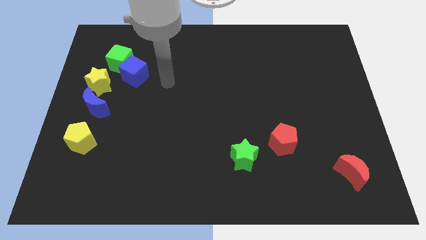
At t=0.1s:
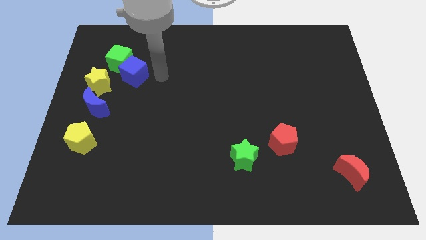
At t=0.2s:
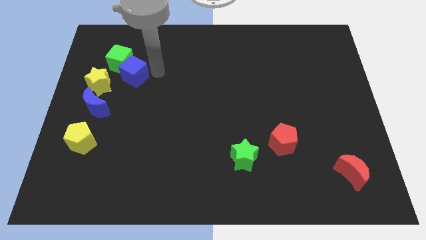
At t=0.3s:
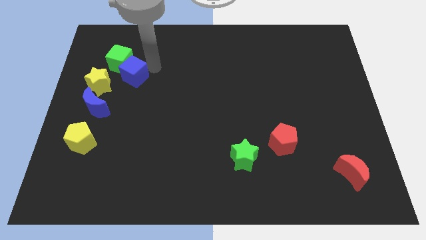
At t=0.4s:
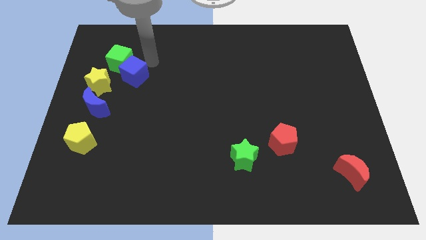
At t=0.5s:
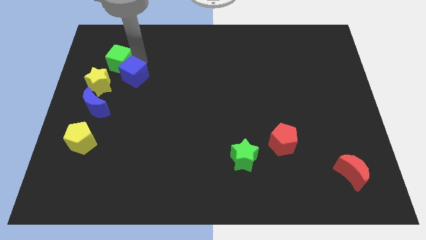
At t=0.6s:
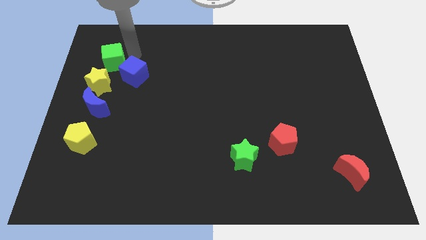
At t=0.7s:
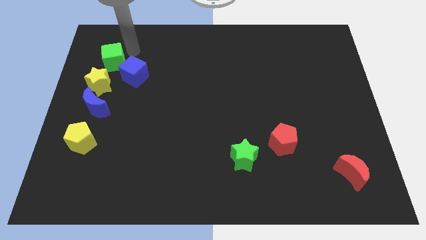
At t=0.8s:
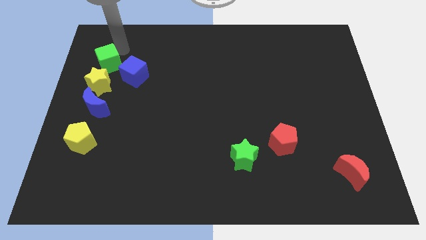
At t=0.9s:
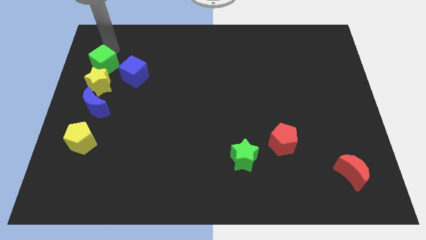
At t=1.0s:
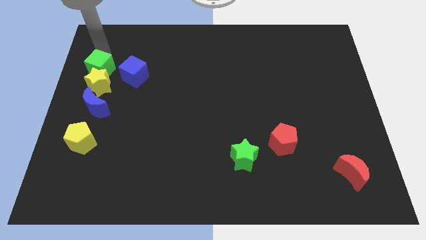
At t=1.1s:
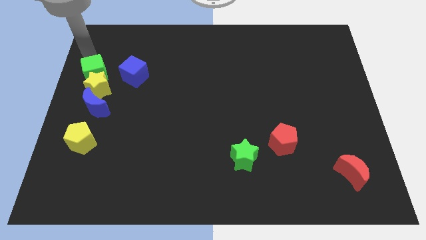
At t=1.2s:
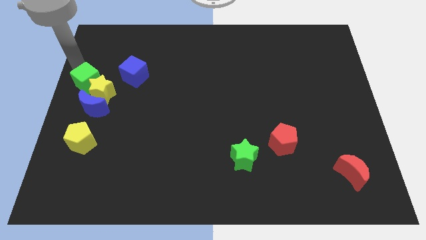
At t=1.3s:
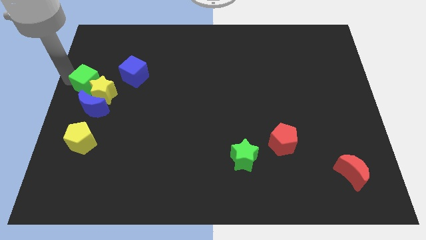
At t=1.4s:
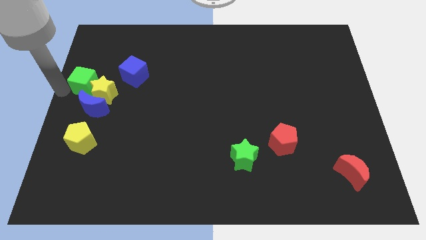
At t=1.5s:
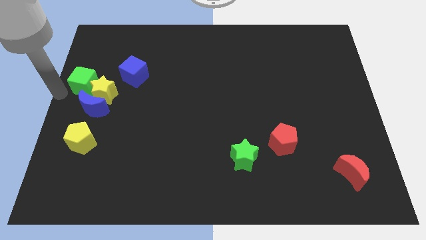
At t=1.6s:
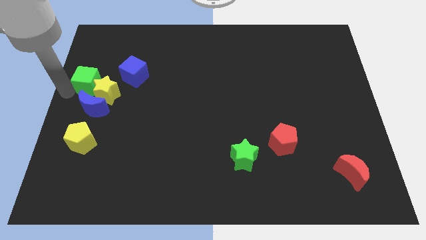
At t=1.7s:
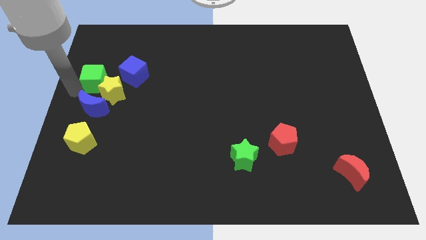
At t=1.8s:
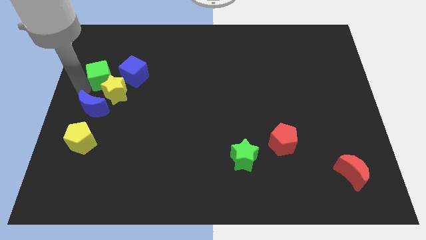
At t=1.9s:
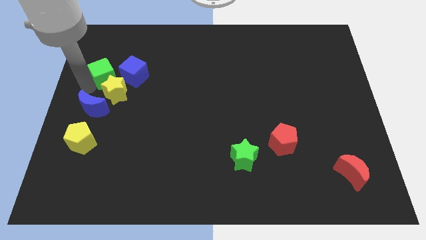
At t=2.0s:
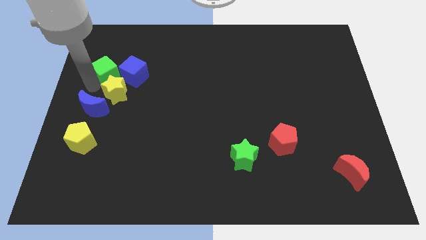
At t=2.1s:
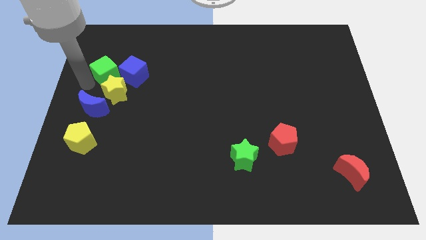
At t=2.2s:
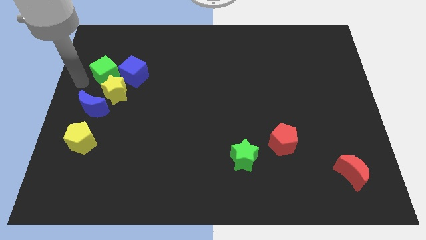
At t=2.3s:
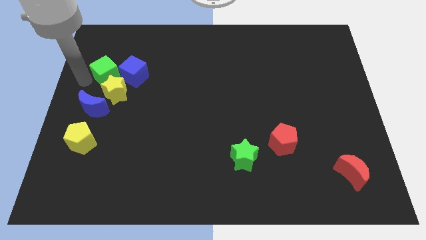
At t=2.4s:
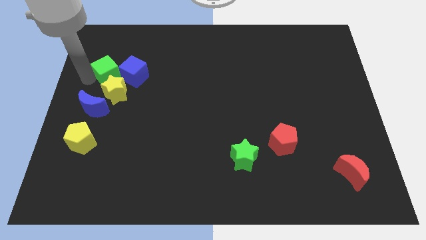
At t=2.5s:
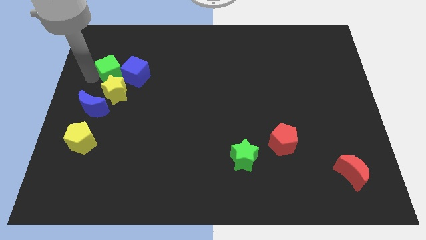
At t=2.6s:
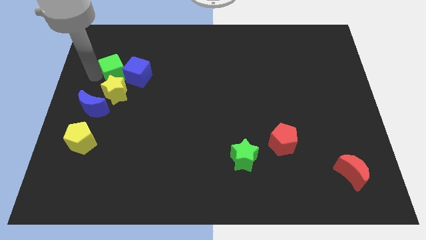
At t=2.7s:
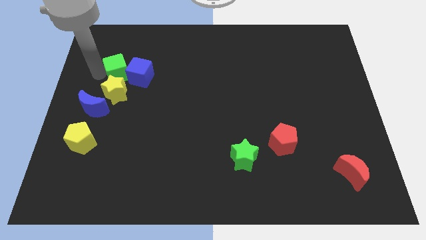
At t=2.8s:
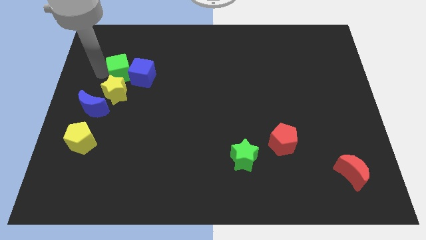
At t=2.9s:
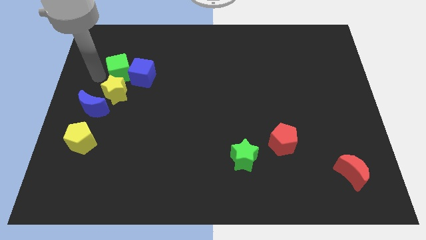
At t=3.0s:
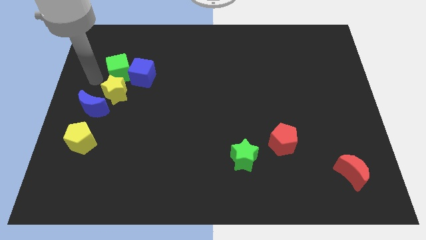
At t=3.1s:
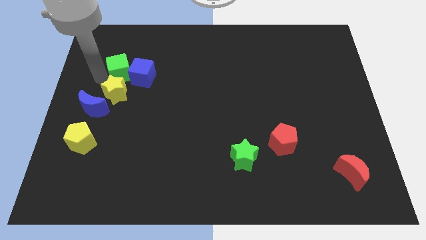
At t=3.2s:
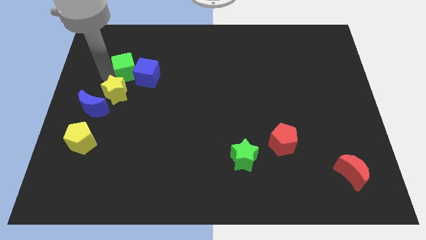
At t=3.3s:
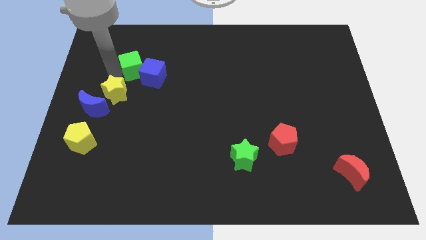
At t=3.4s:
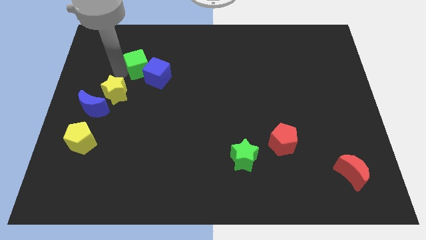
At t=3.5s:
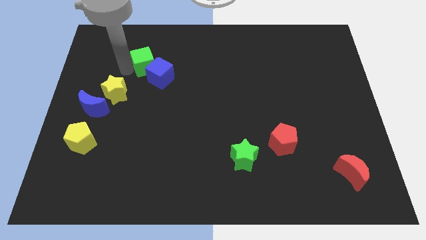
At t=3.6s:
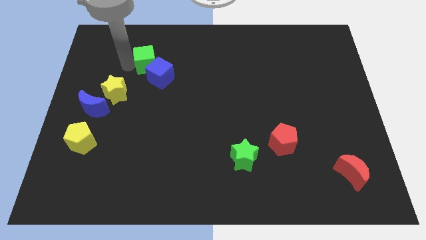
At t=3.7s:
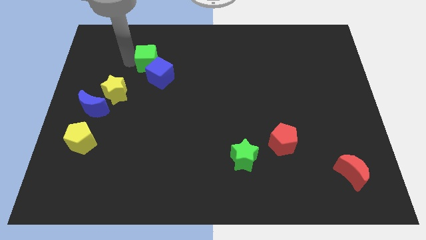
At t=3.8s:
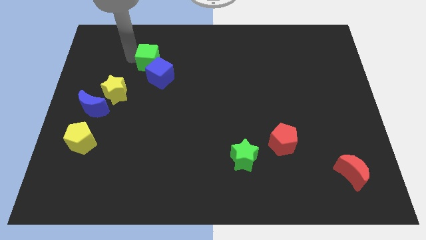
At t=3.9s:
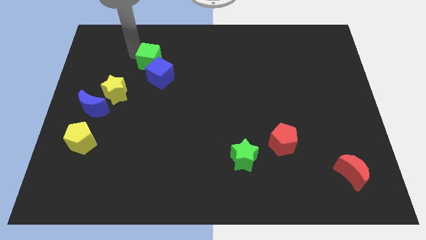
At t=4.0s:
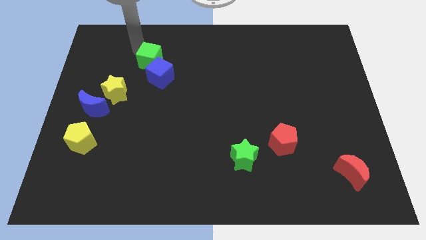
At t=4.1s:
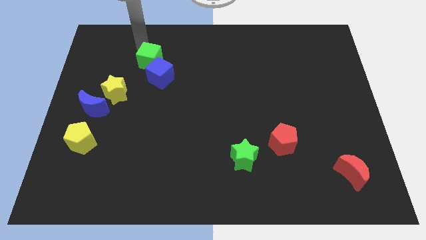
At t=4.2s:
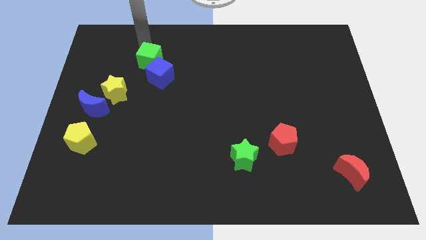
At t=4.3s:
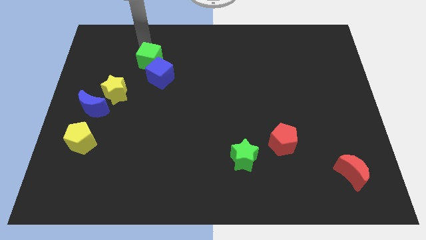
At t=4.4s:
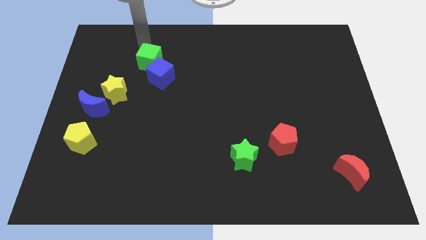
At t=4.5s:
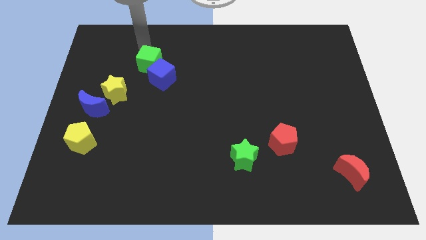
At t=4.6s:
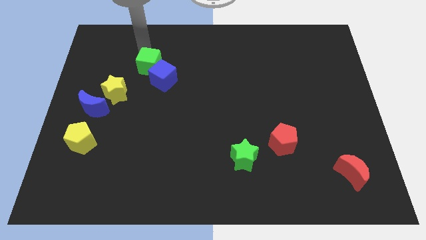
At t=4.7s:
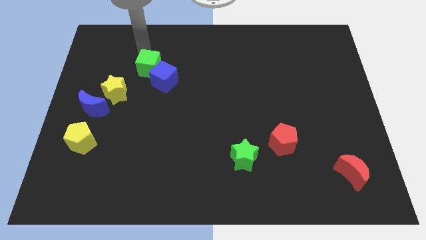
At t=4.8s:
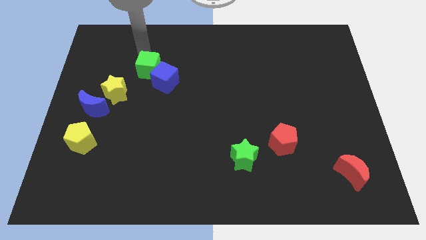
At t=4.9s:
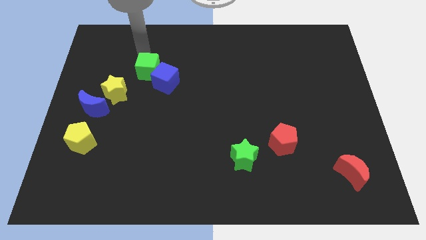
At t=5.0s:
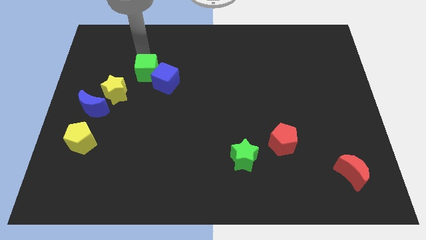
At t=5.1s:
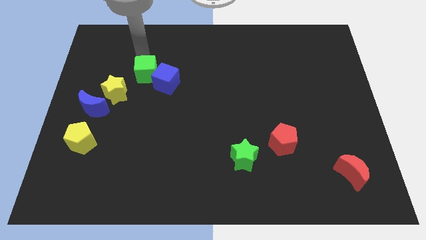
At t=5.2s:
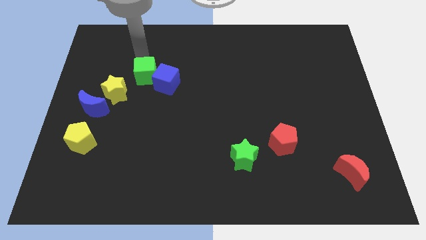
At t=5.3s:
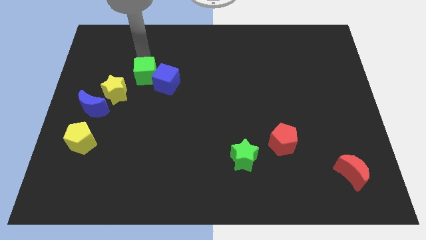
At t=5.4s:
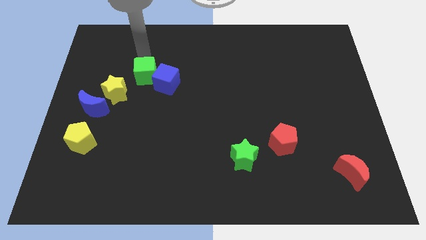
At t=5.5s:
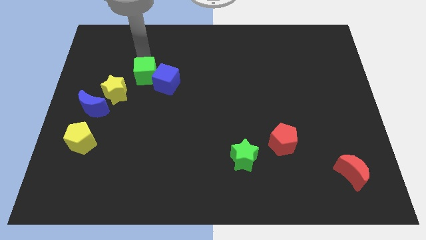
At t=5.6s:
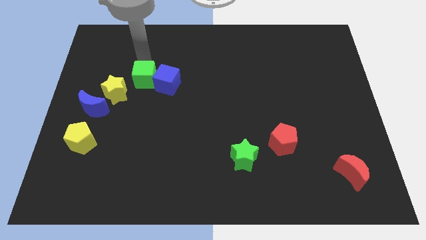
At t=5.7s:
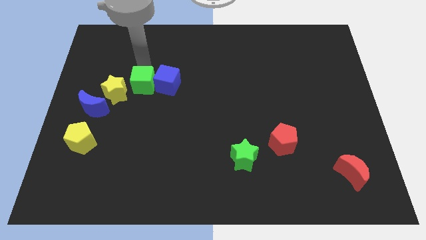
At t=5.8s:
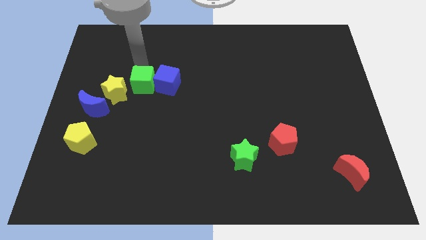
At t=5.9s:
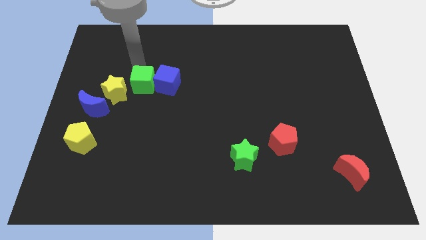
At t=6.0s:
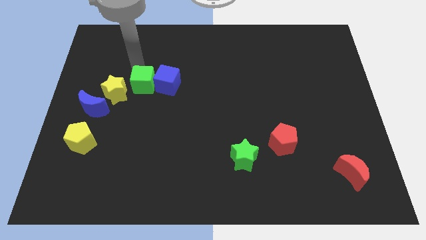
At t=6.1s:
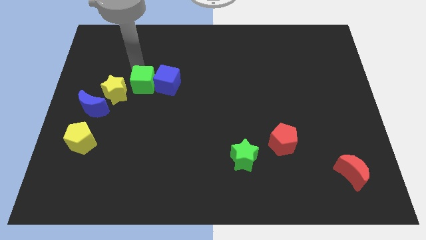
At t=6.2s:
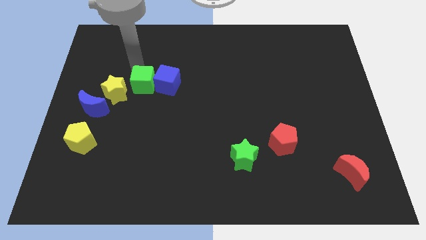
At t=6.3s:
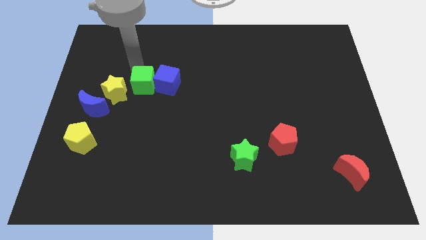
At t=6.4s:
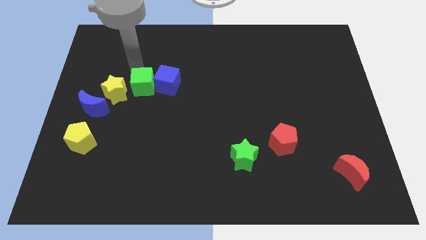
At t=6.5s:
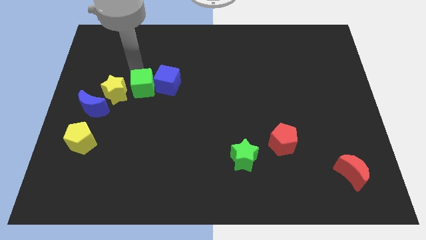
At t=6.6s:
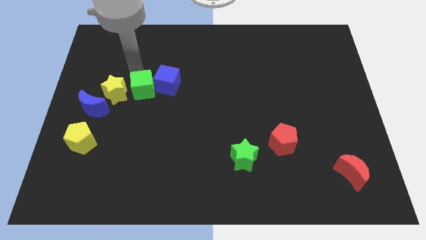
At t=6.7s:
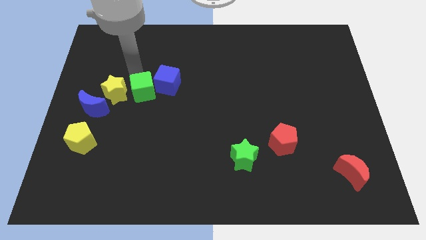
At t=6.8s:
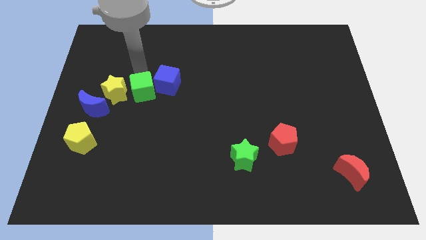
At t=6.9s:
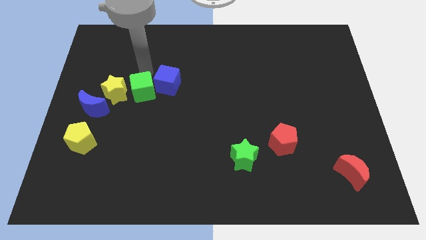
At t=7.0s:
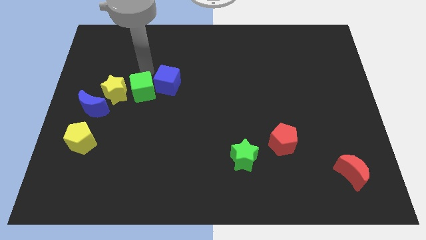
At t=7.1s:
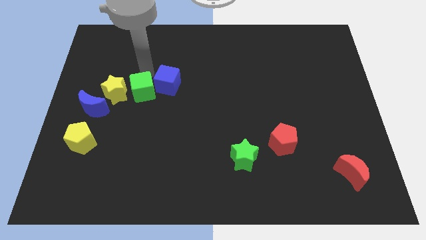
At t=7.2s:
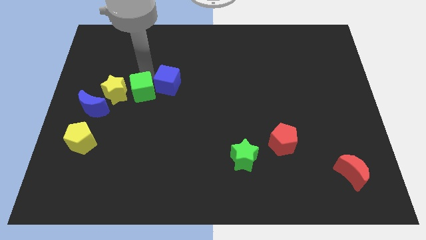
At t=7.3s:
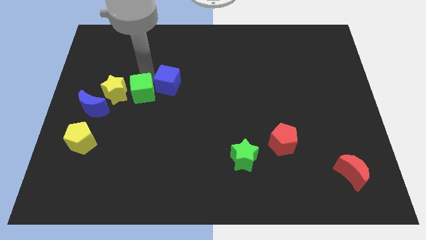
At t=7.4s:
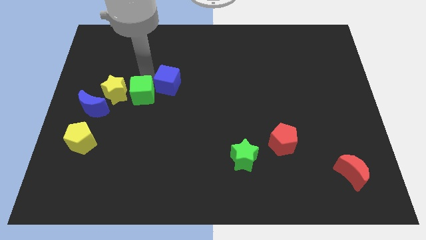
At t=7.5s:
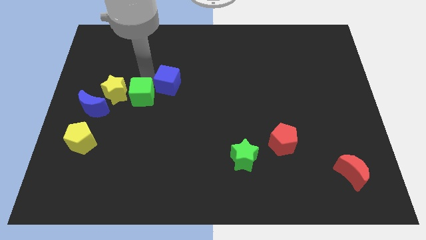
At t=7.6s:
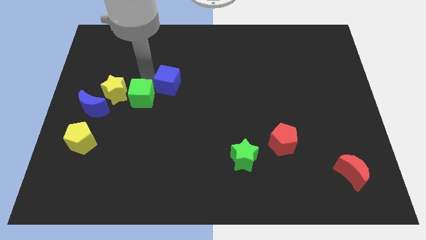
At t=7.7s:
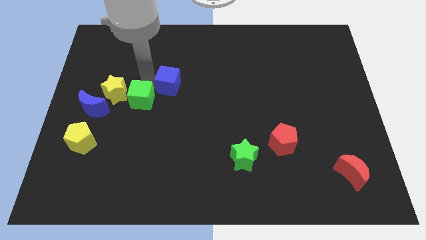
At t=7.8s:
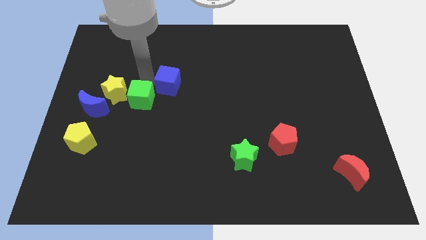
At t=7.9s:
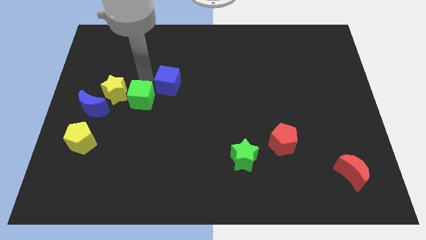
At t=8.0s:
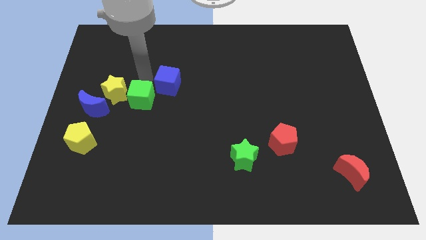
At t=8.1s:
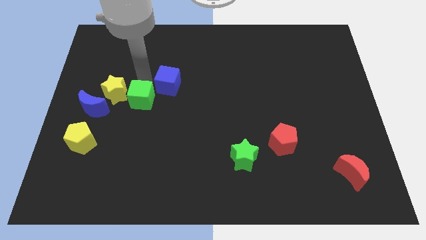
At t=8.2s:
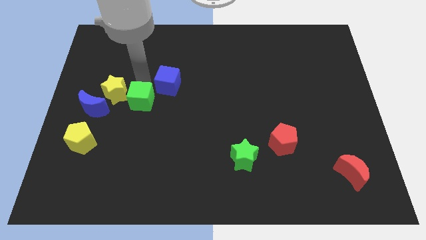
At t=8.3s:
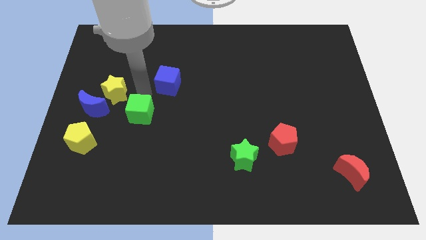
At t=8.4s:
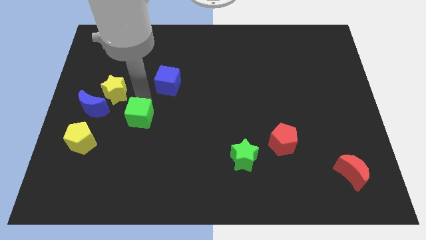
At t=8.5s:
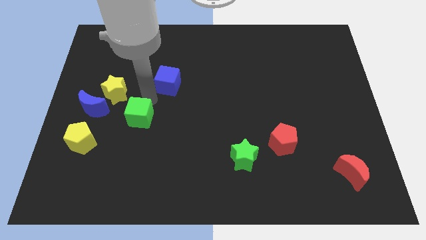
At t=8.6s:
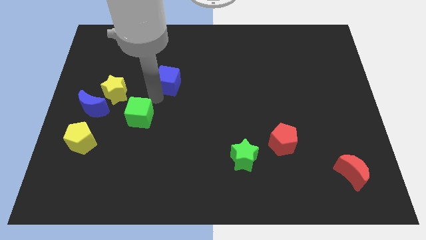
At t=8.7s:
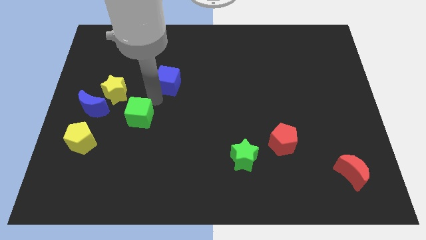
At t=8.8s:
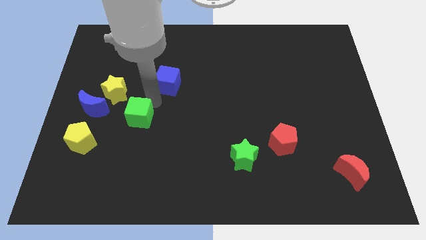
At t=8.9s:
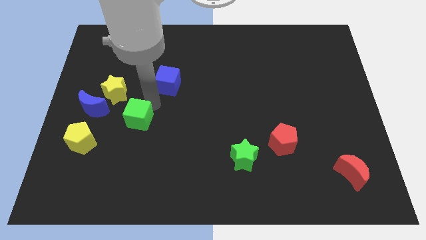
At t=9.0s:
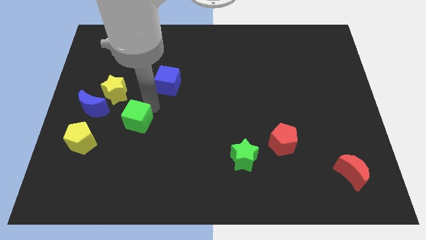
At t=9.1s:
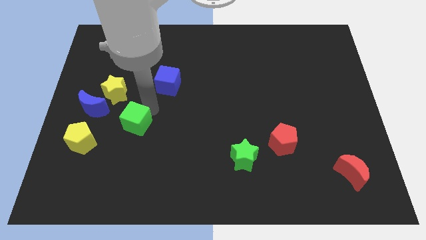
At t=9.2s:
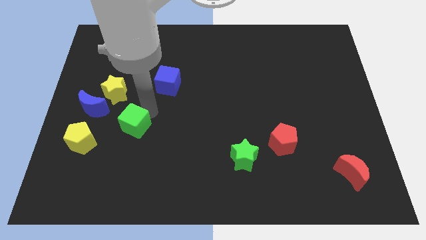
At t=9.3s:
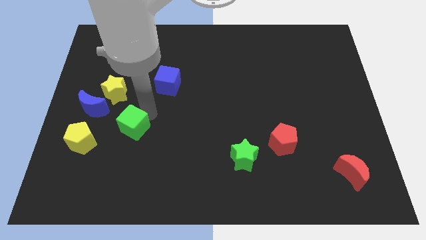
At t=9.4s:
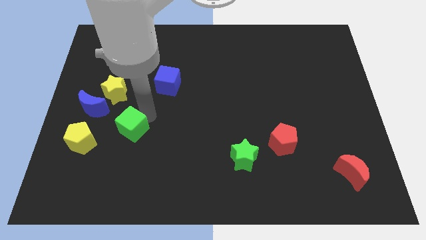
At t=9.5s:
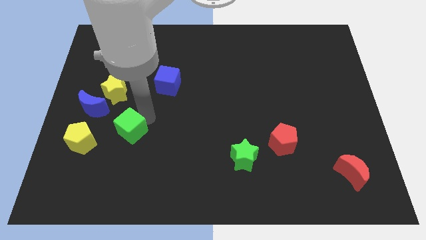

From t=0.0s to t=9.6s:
slide the green cube down
